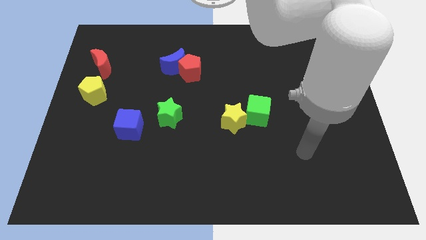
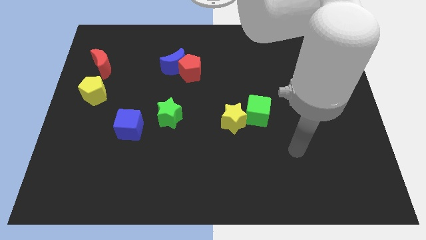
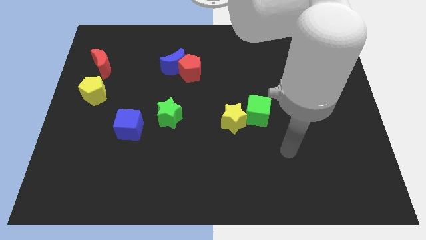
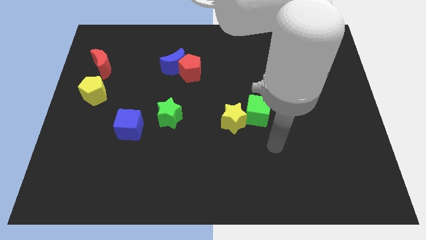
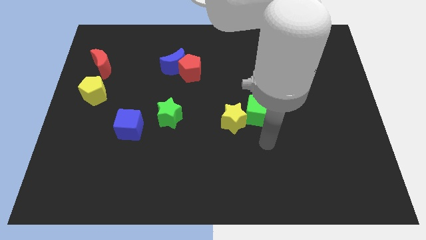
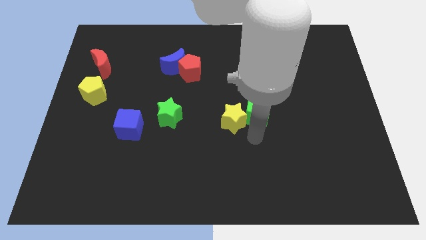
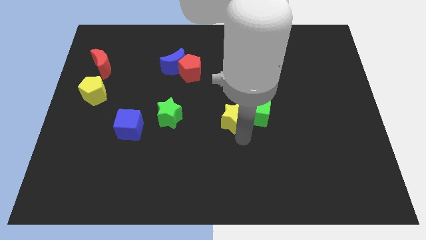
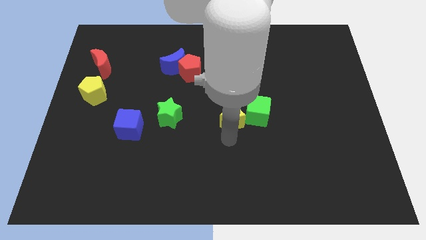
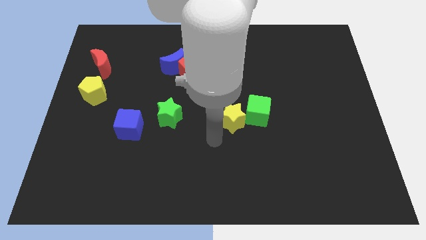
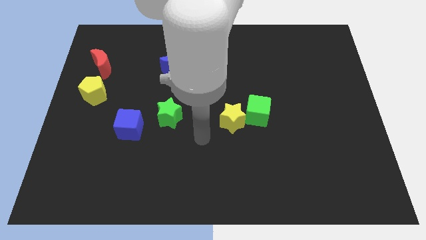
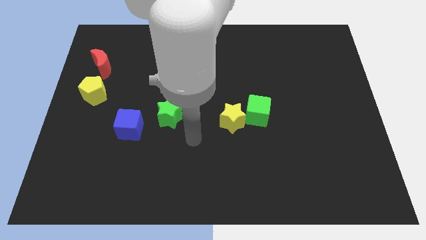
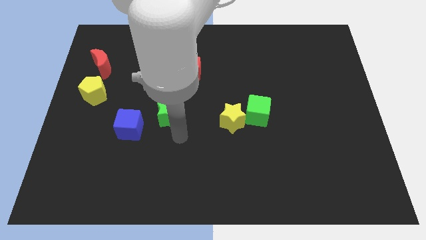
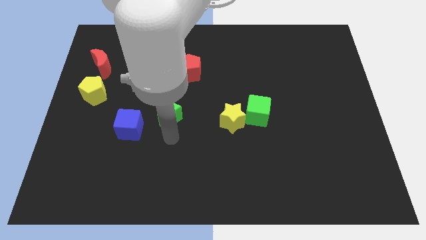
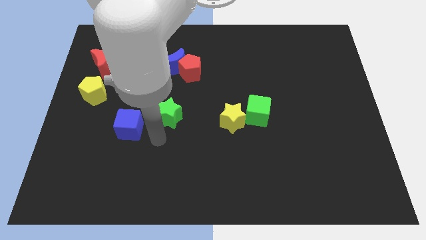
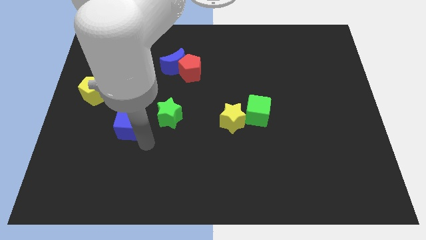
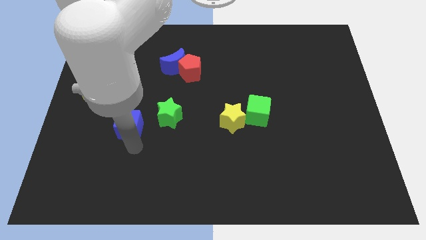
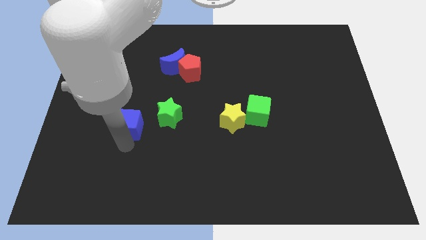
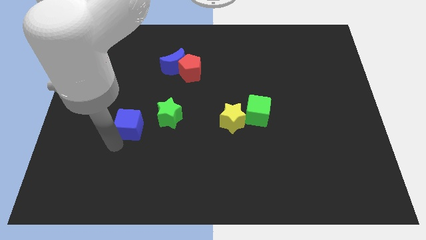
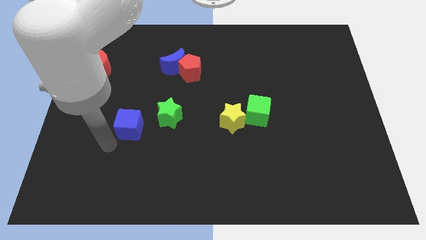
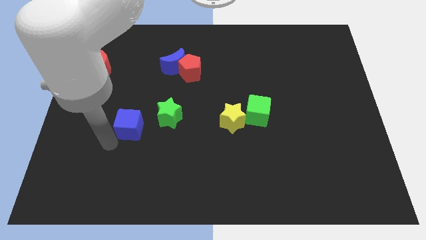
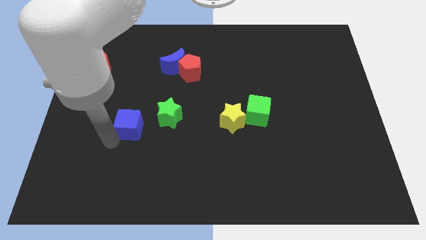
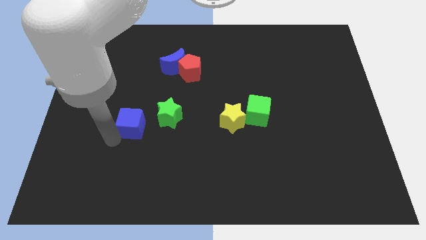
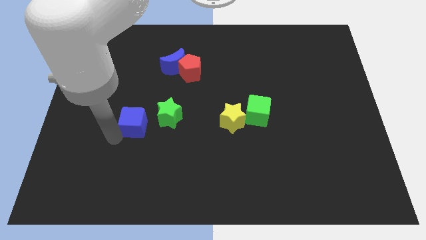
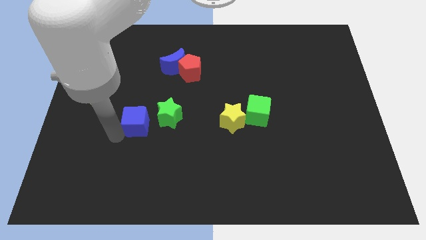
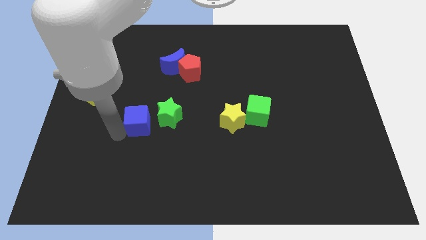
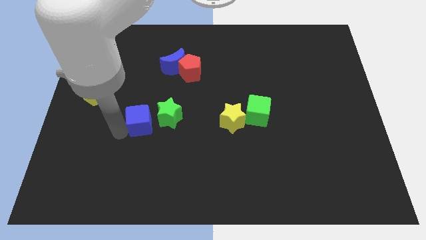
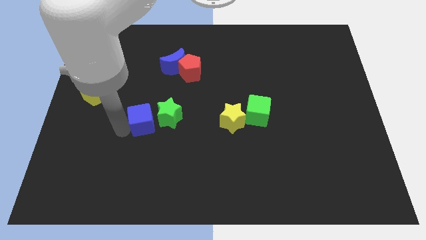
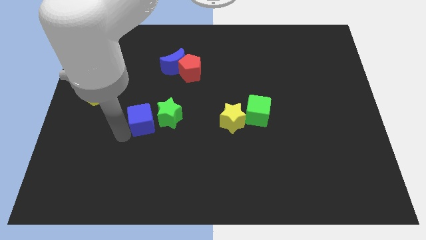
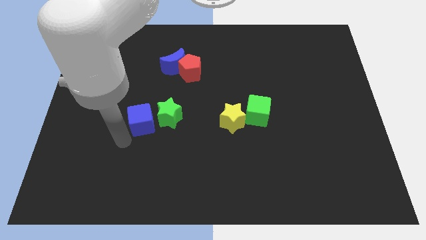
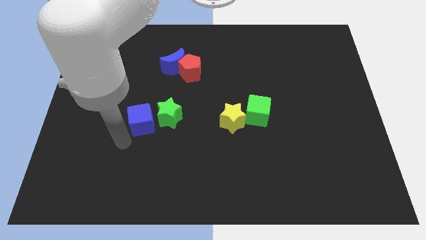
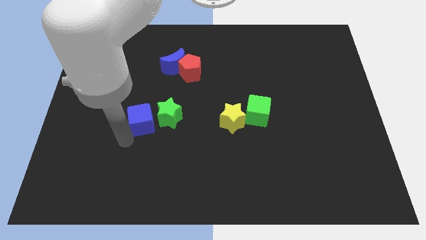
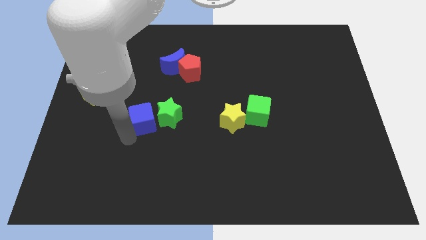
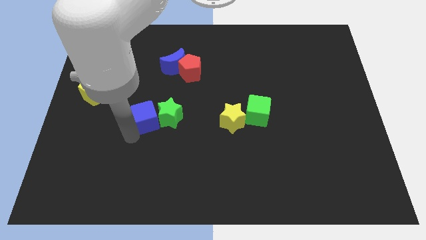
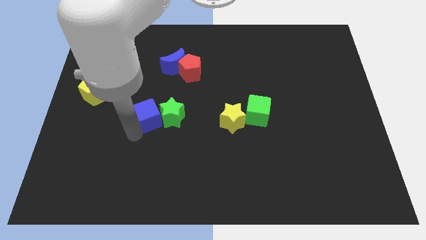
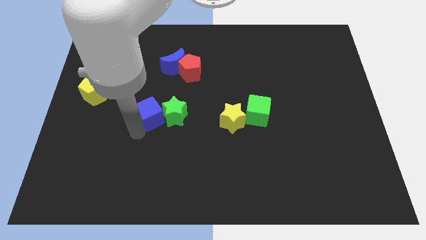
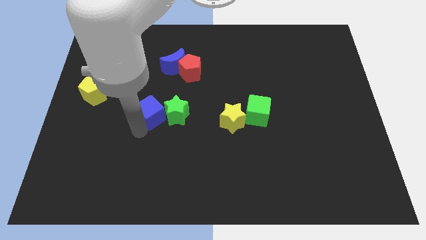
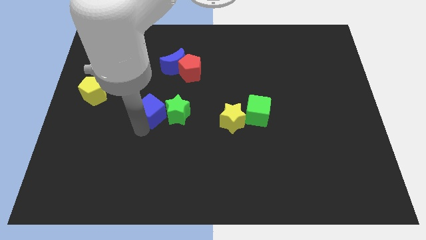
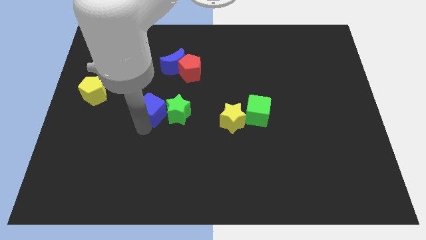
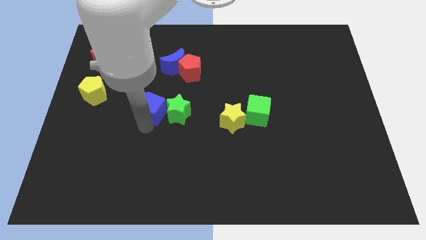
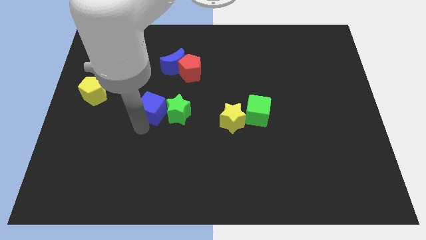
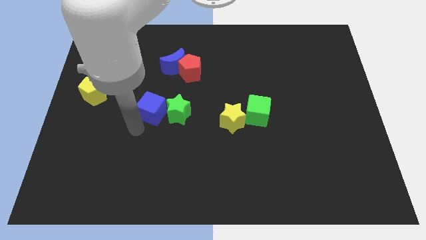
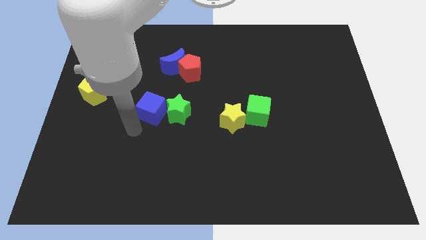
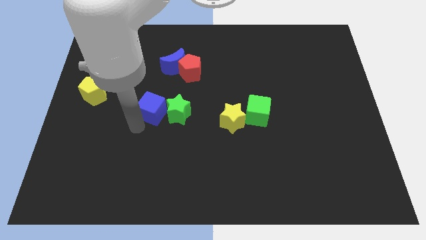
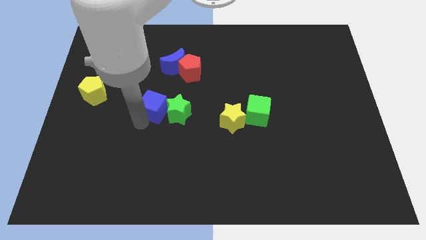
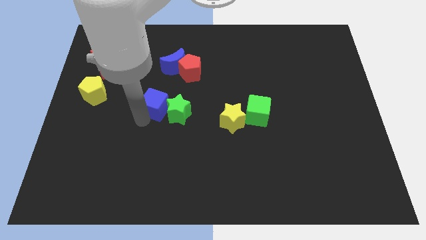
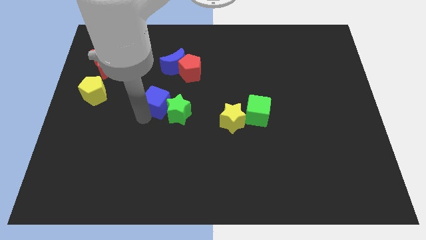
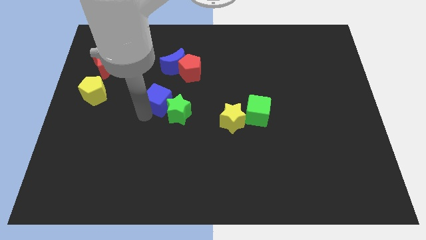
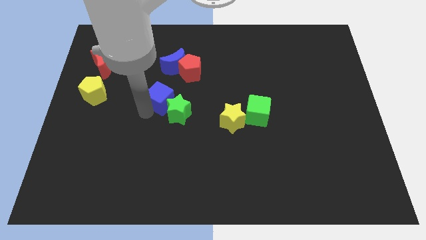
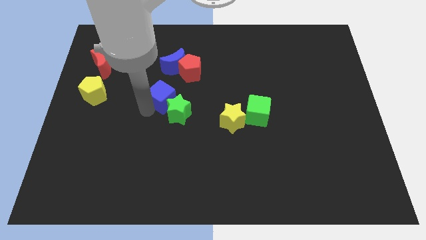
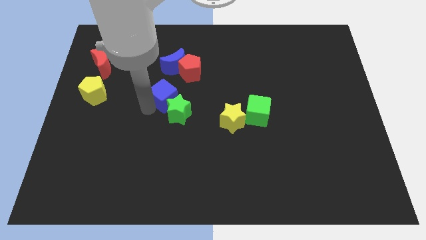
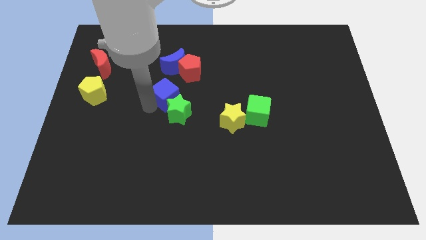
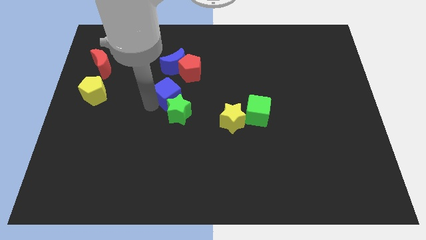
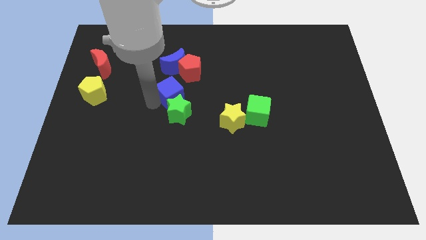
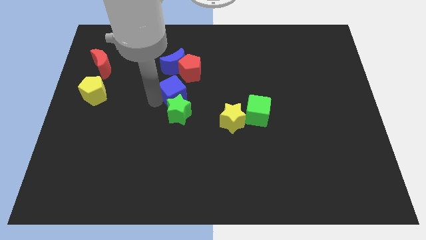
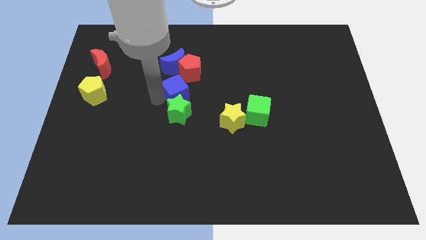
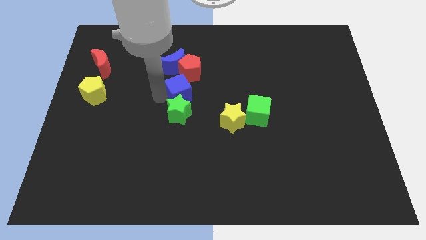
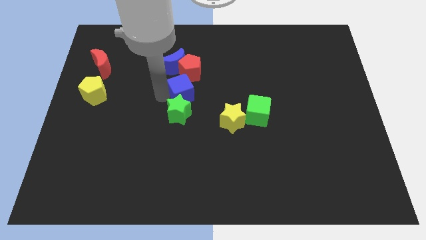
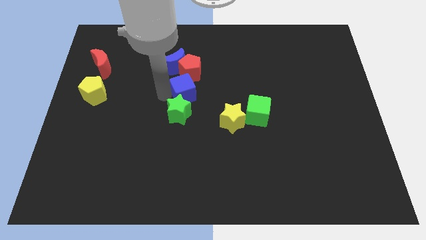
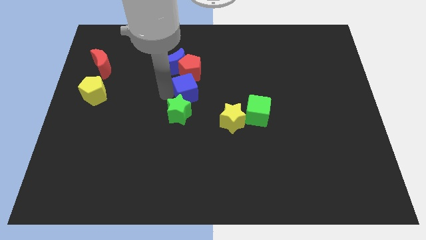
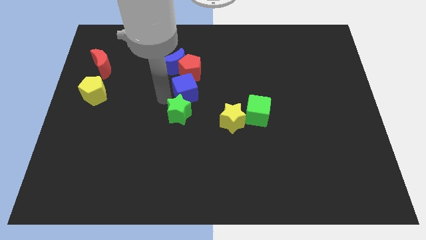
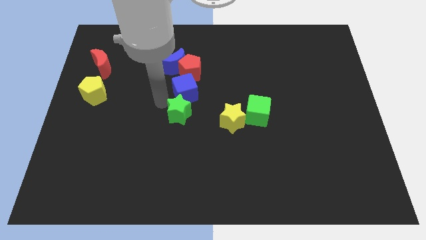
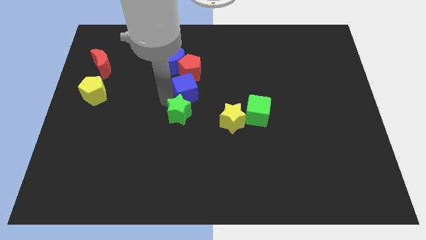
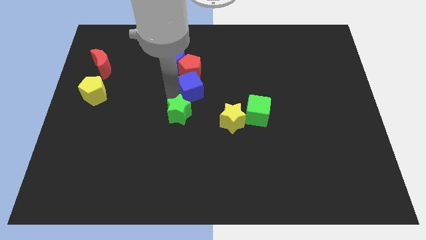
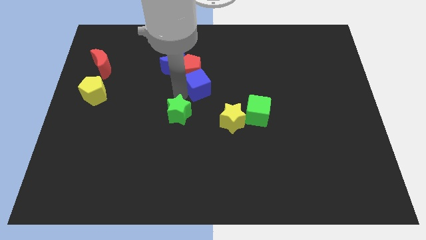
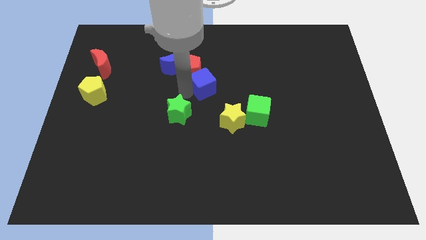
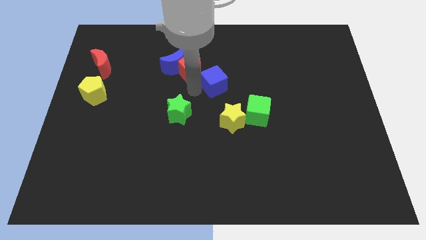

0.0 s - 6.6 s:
move the blue cube just right of the red pentagon
